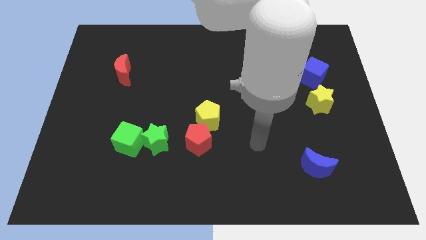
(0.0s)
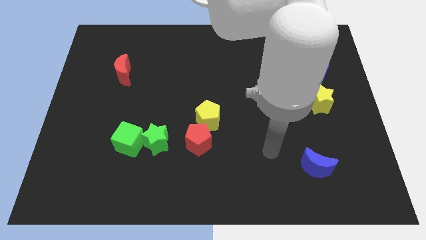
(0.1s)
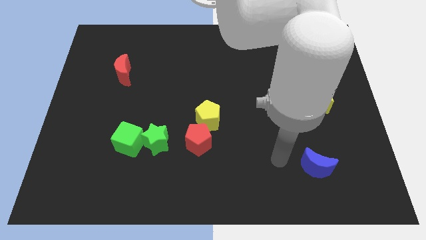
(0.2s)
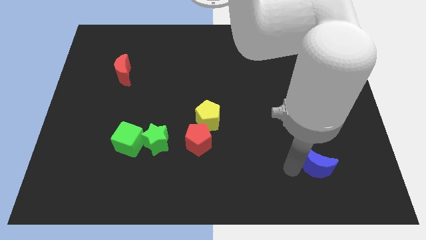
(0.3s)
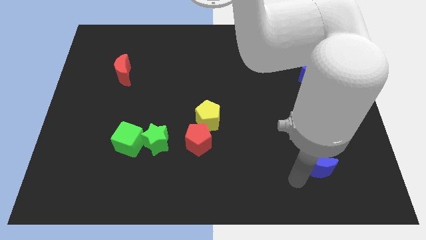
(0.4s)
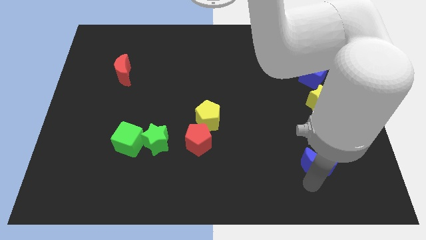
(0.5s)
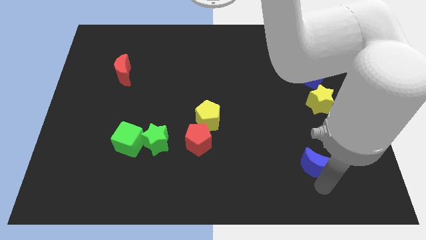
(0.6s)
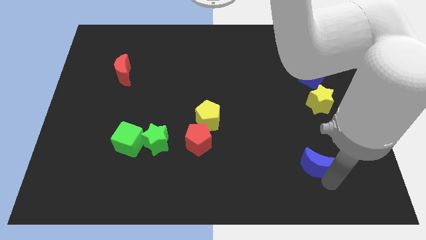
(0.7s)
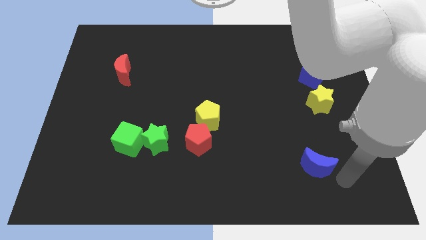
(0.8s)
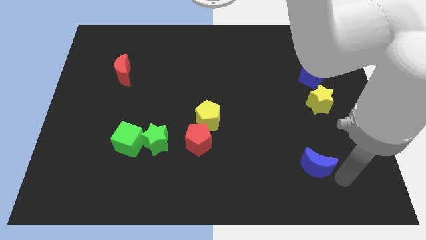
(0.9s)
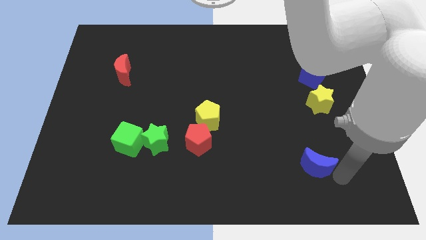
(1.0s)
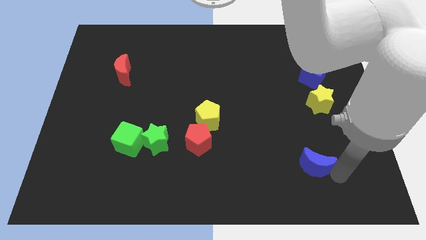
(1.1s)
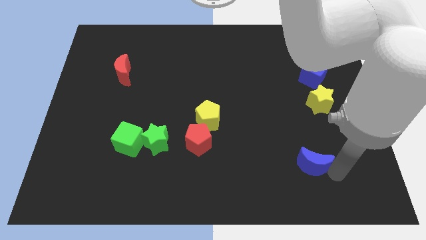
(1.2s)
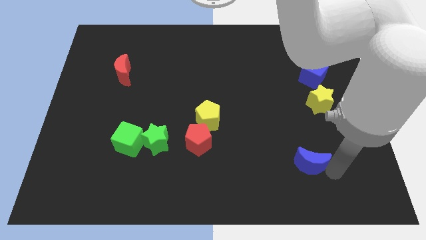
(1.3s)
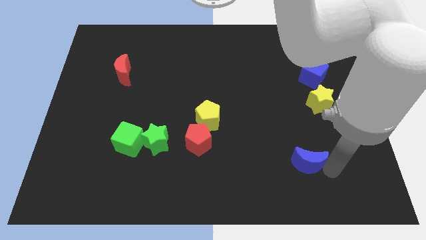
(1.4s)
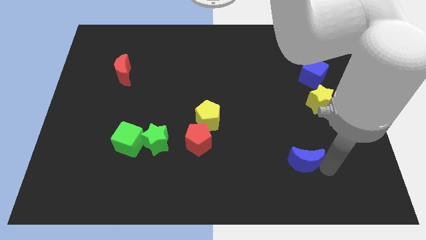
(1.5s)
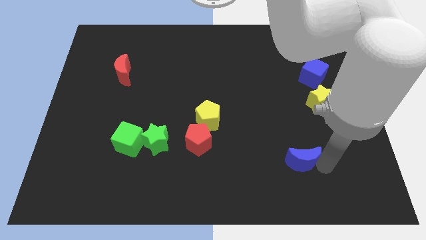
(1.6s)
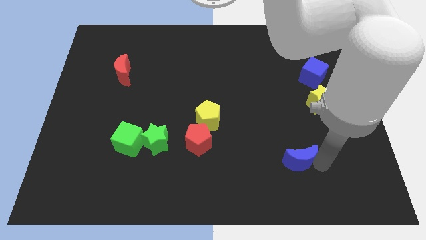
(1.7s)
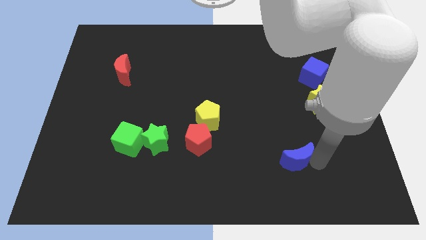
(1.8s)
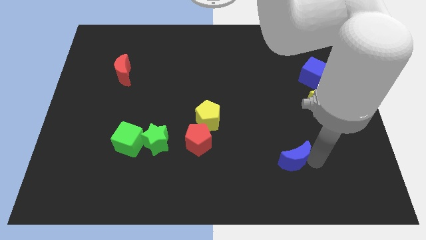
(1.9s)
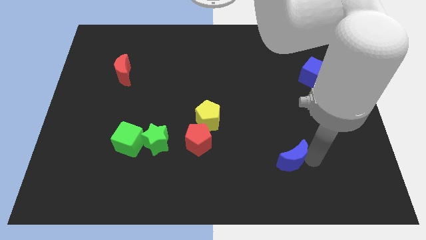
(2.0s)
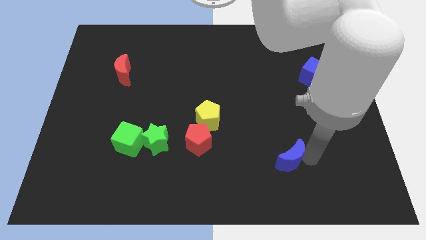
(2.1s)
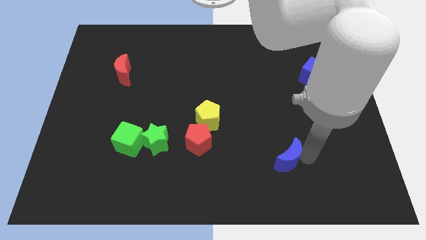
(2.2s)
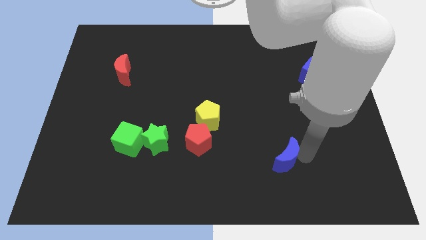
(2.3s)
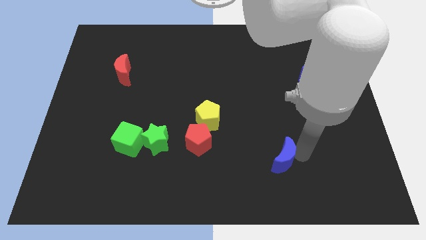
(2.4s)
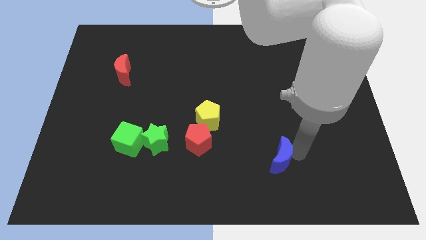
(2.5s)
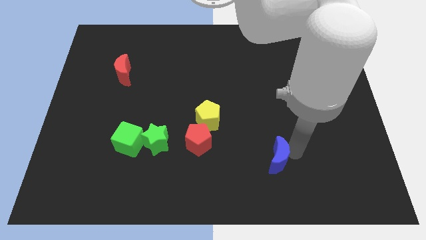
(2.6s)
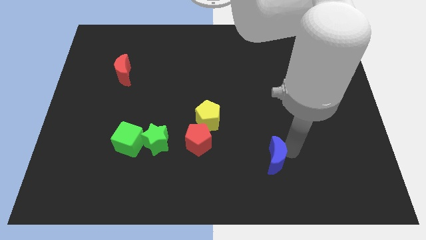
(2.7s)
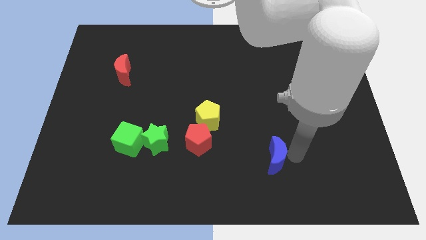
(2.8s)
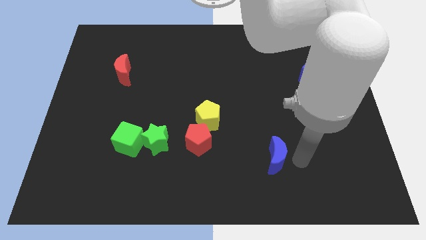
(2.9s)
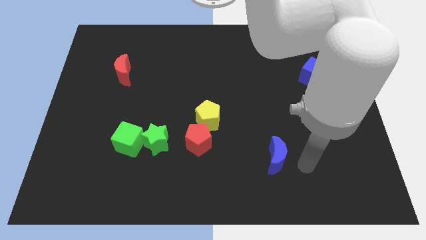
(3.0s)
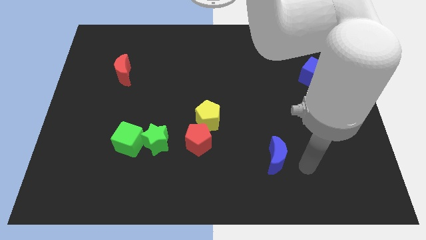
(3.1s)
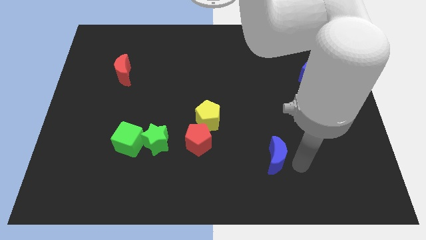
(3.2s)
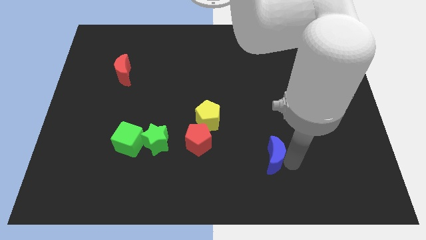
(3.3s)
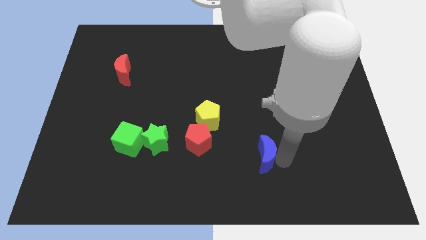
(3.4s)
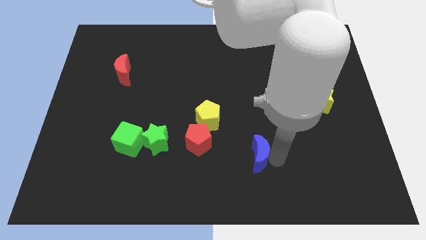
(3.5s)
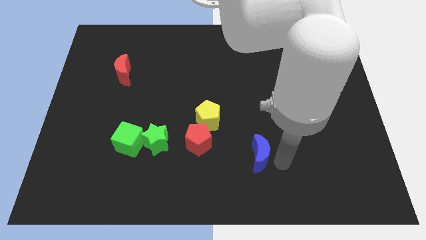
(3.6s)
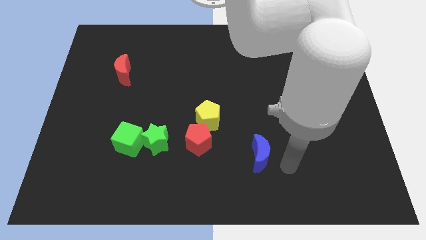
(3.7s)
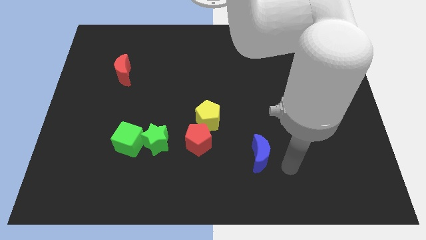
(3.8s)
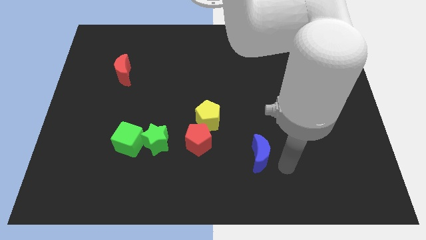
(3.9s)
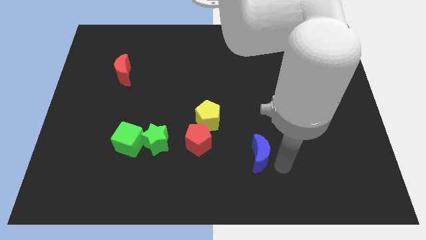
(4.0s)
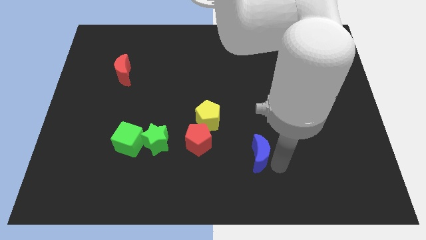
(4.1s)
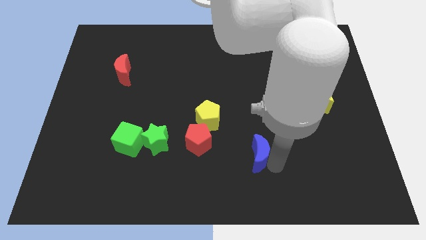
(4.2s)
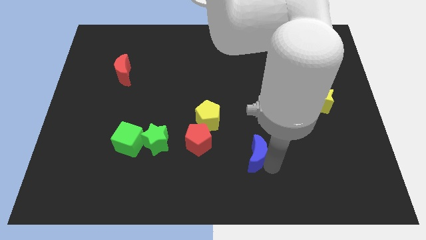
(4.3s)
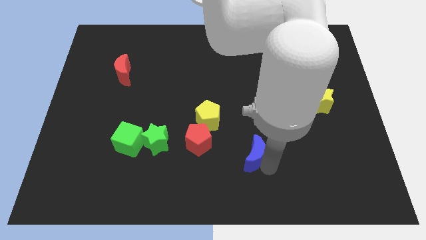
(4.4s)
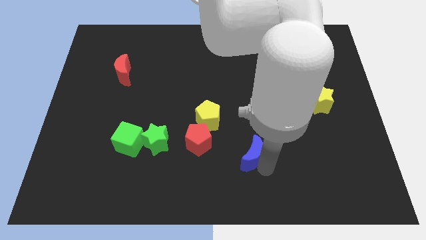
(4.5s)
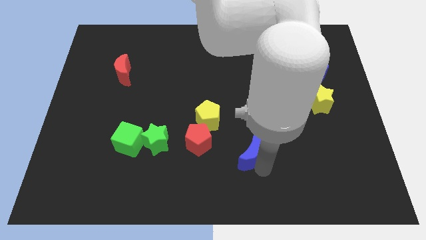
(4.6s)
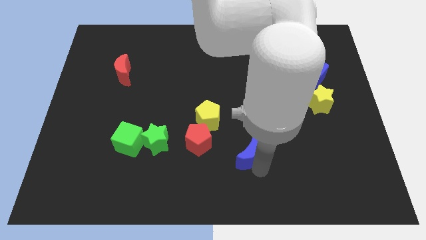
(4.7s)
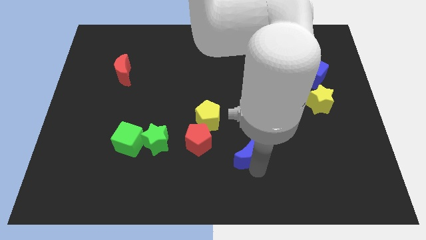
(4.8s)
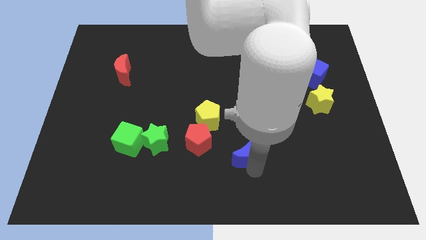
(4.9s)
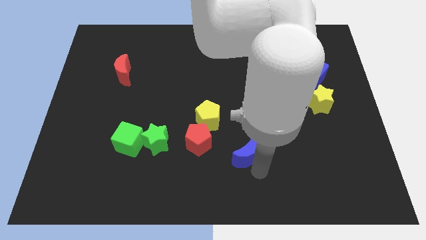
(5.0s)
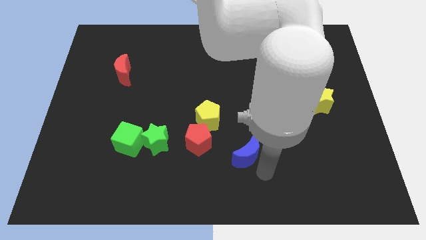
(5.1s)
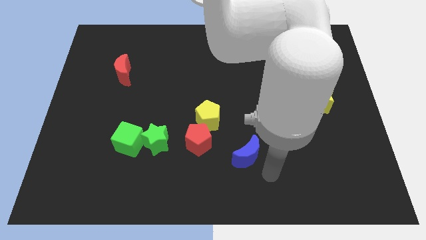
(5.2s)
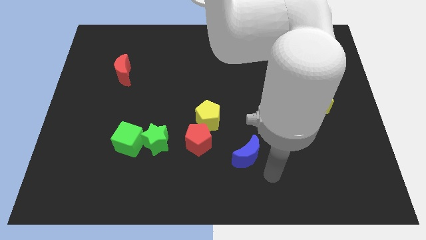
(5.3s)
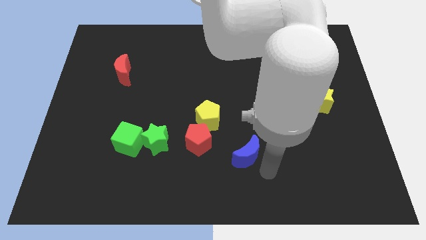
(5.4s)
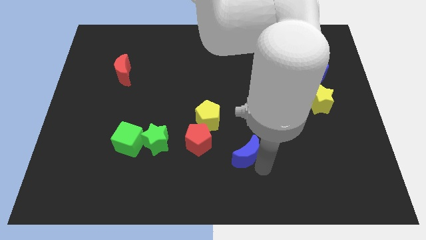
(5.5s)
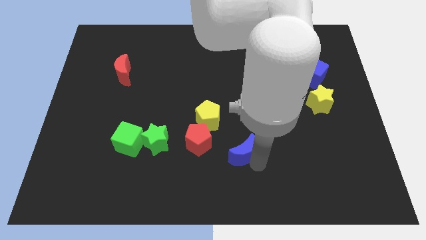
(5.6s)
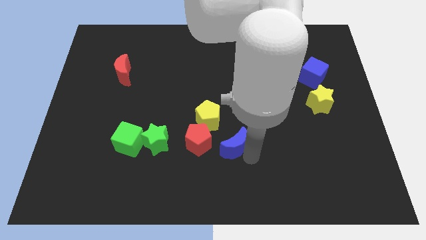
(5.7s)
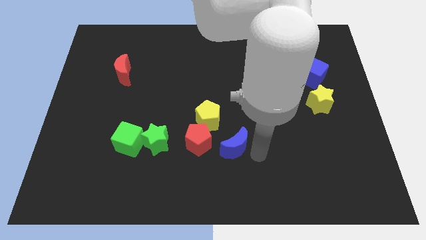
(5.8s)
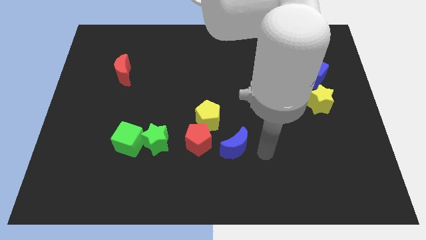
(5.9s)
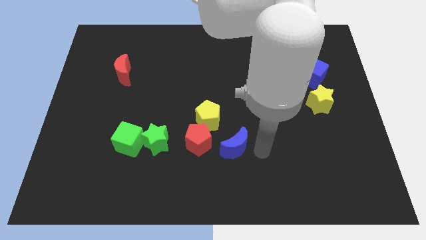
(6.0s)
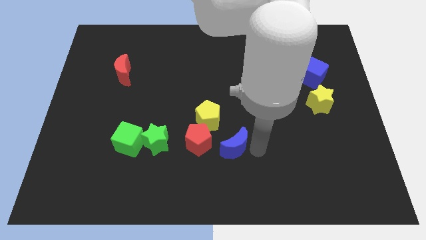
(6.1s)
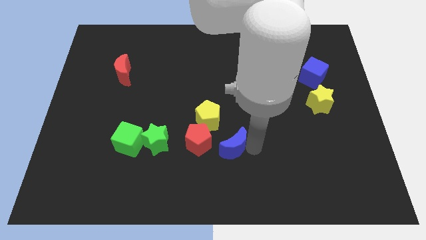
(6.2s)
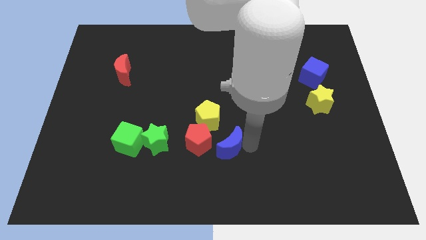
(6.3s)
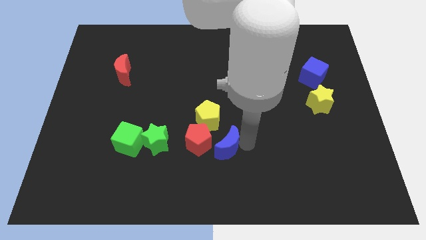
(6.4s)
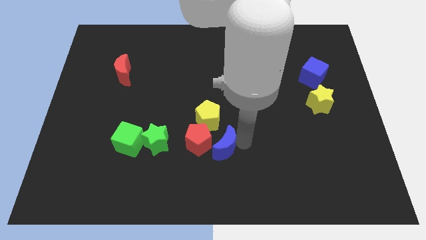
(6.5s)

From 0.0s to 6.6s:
move the blue moon next to the red pentagon

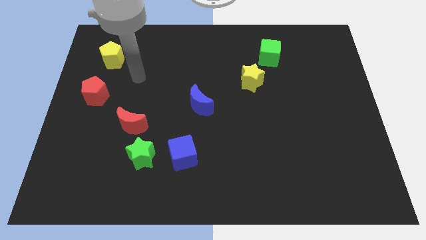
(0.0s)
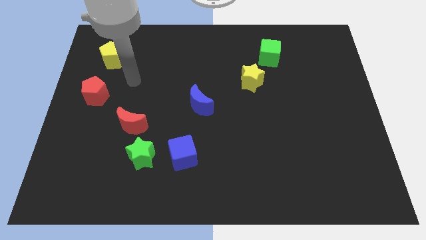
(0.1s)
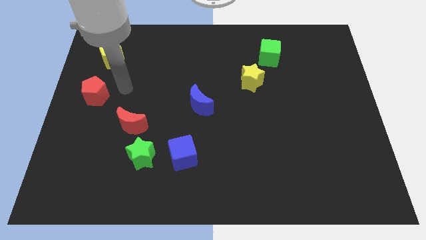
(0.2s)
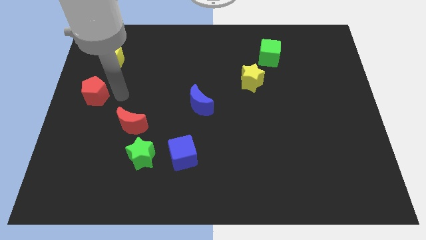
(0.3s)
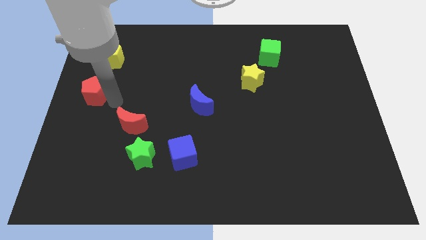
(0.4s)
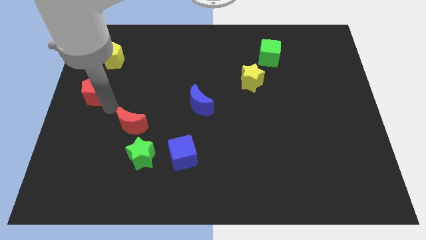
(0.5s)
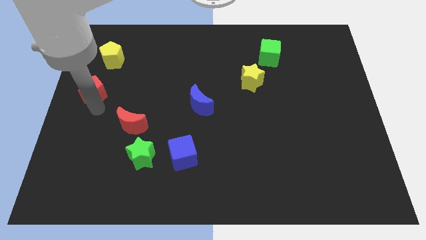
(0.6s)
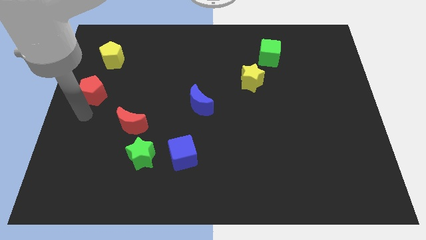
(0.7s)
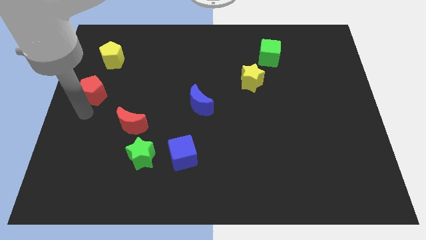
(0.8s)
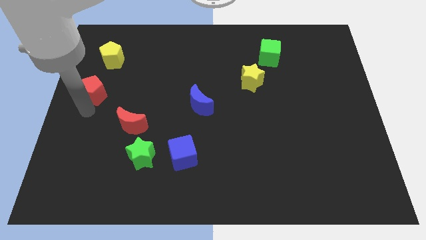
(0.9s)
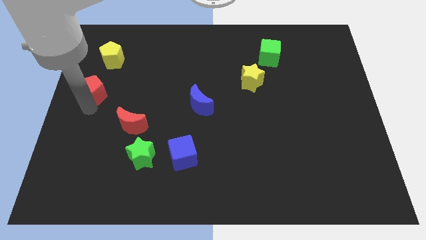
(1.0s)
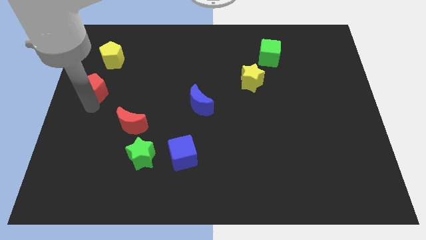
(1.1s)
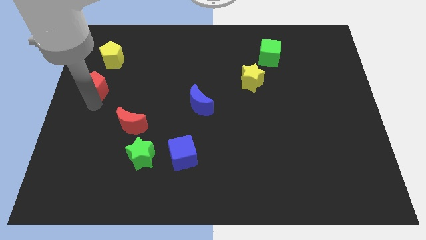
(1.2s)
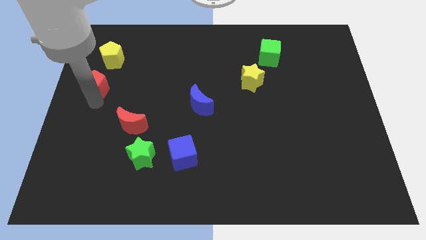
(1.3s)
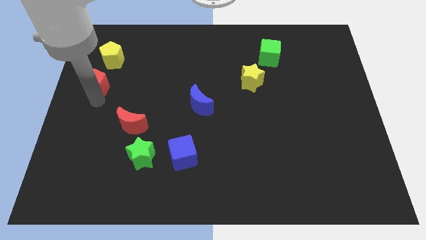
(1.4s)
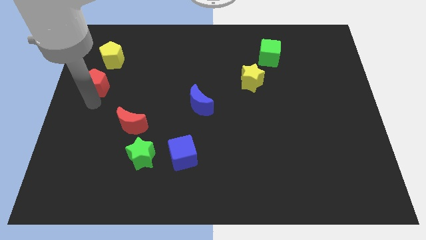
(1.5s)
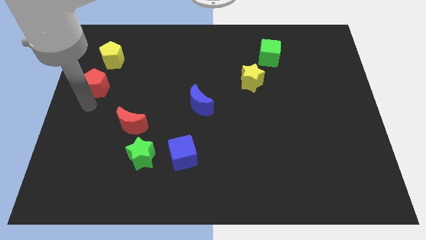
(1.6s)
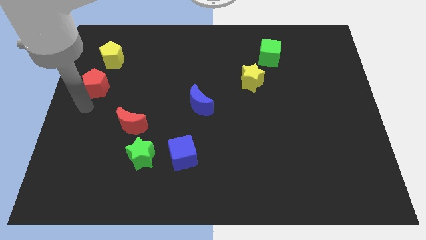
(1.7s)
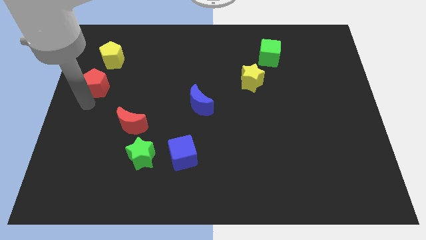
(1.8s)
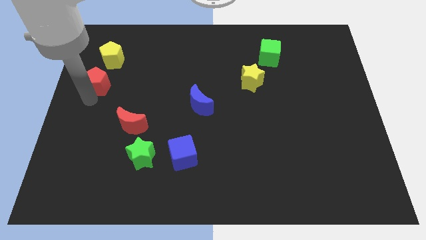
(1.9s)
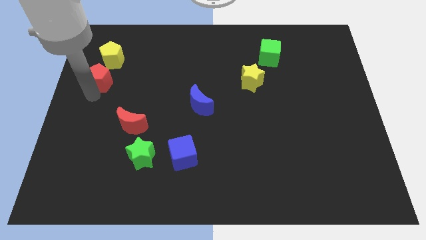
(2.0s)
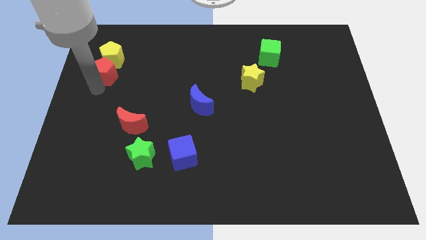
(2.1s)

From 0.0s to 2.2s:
move the red pentagon to the yellow pentagon
